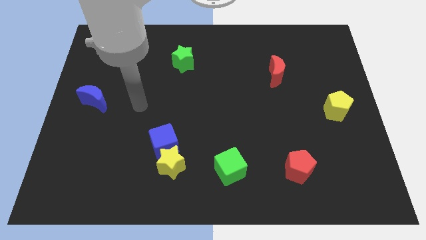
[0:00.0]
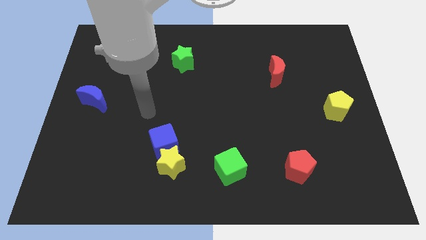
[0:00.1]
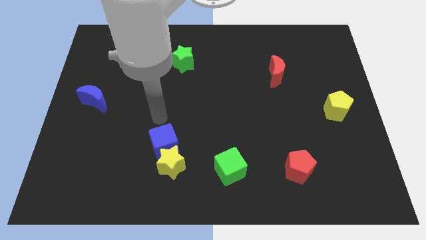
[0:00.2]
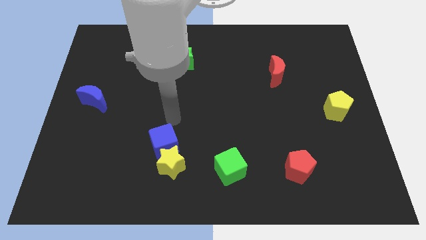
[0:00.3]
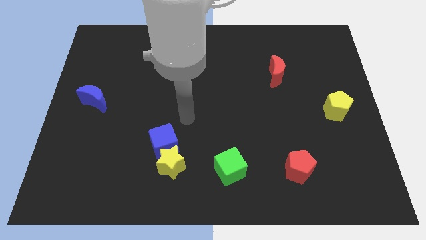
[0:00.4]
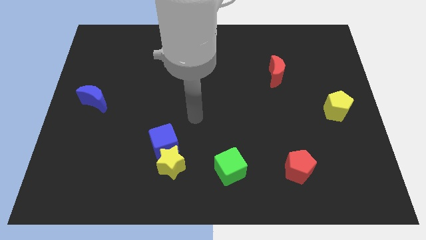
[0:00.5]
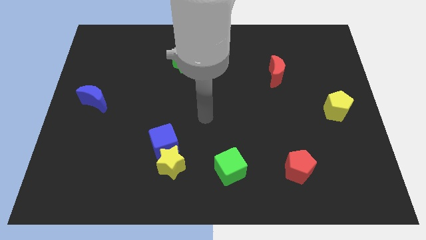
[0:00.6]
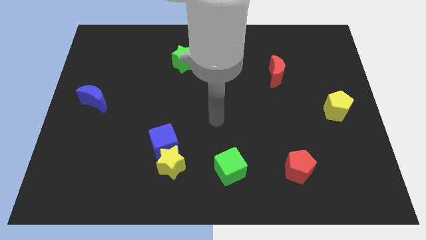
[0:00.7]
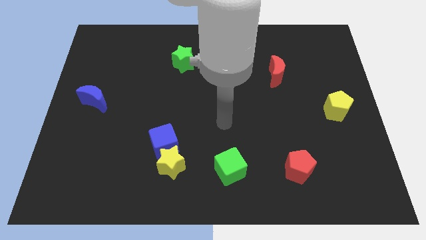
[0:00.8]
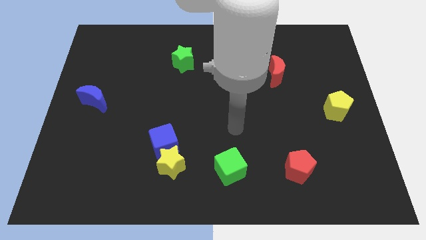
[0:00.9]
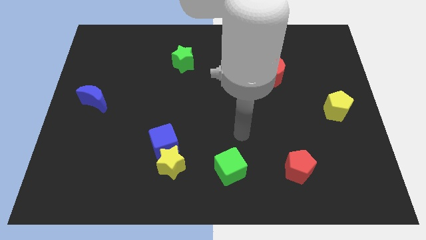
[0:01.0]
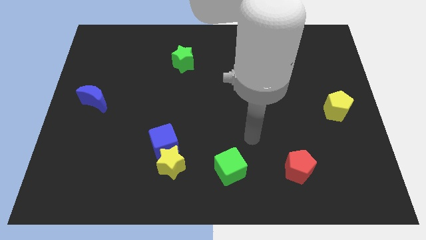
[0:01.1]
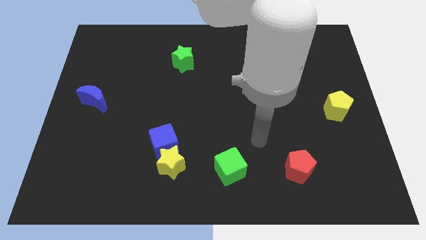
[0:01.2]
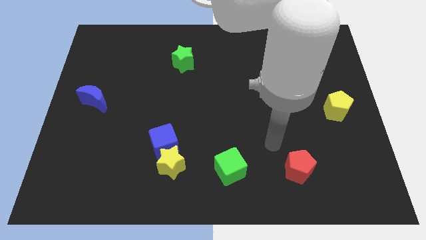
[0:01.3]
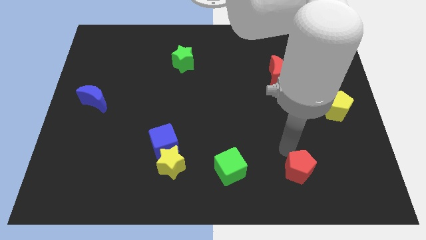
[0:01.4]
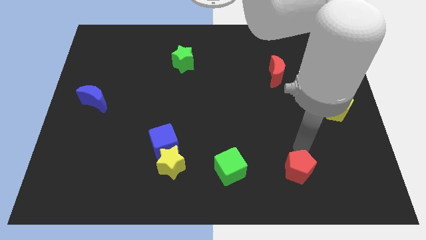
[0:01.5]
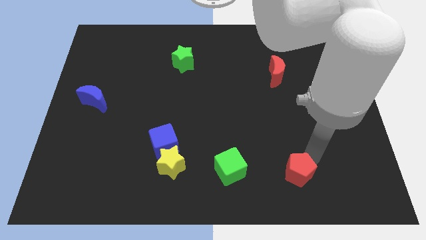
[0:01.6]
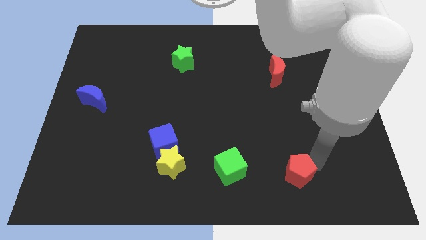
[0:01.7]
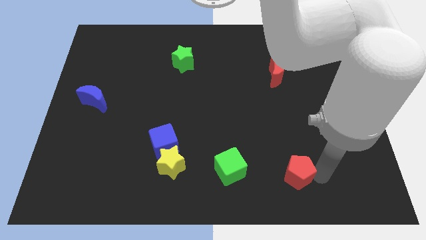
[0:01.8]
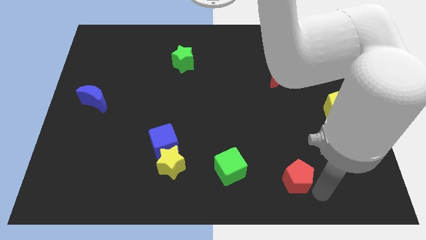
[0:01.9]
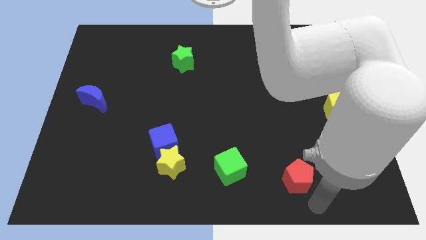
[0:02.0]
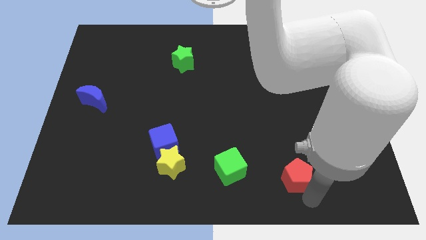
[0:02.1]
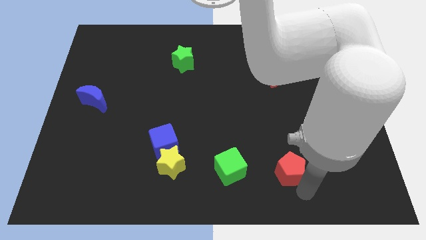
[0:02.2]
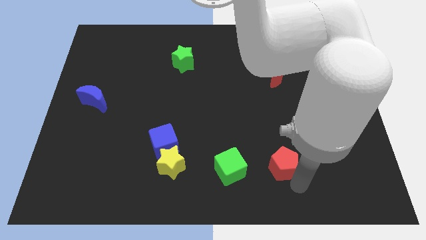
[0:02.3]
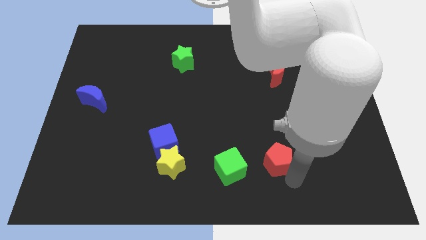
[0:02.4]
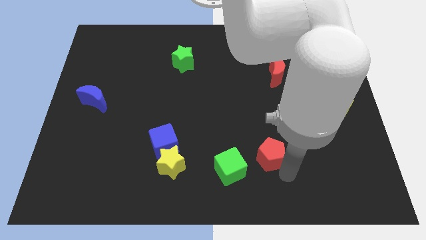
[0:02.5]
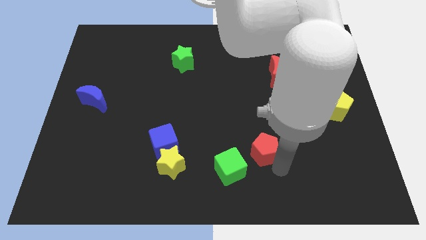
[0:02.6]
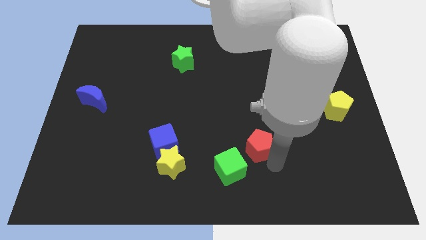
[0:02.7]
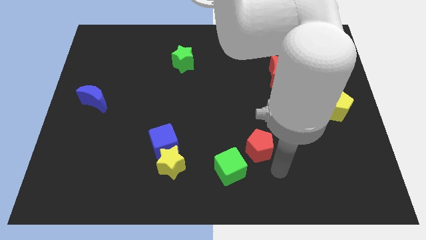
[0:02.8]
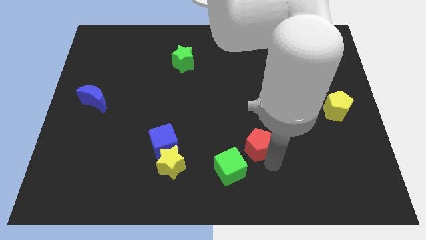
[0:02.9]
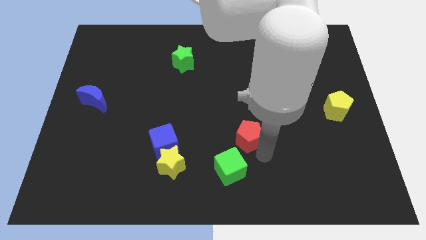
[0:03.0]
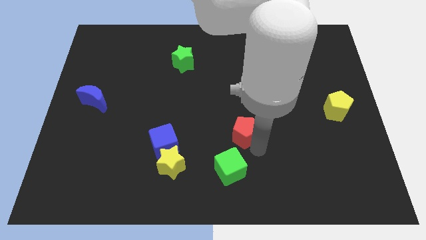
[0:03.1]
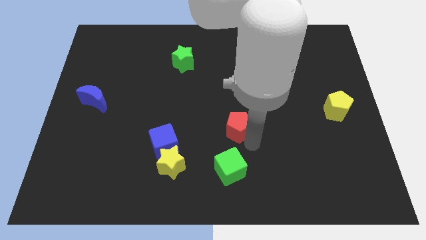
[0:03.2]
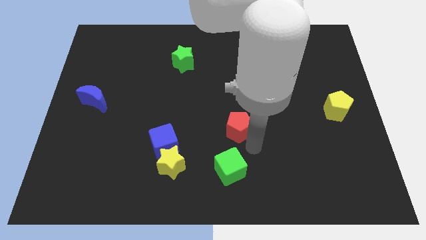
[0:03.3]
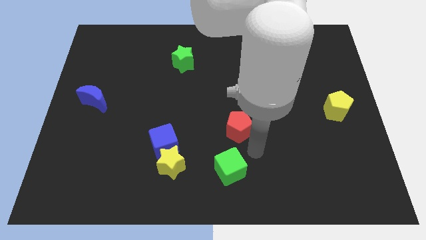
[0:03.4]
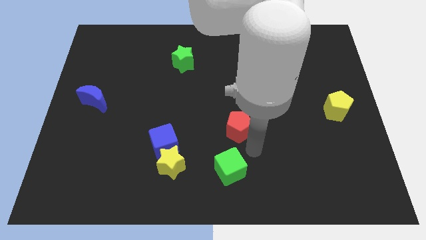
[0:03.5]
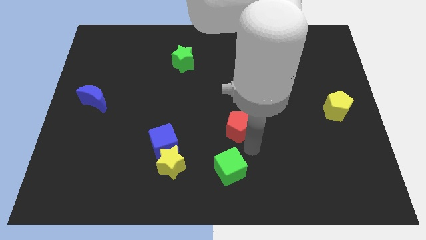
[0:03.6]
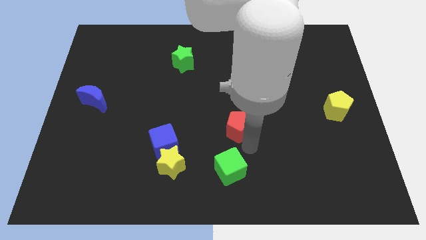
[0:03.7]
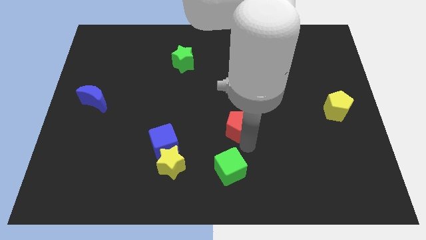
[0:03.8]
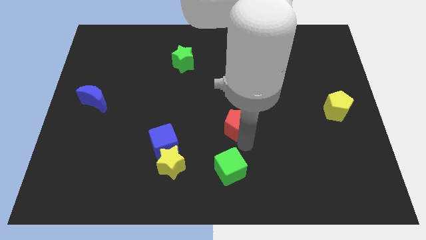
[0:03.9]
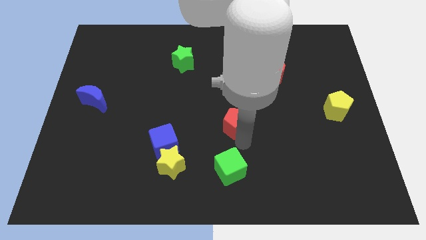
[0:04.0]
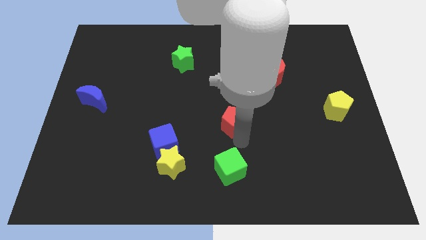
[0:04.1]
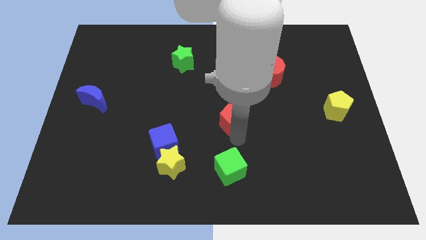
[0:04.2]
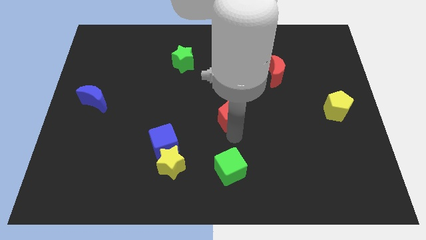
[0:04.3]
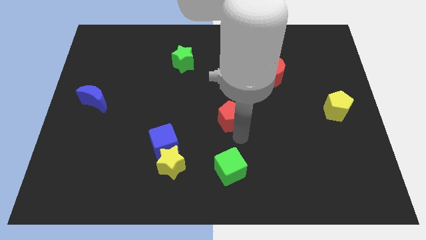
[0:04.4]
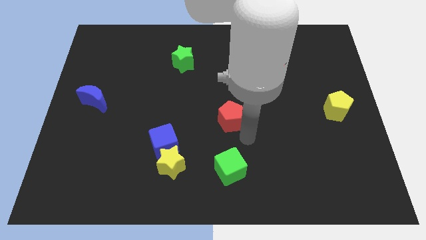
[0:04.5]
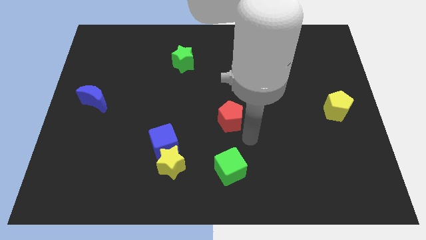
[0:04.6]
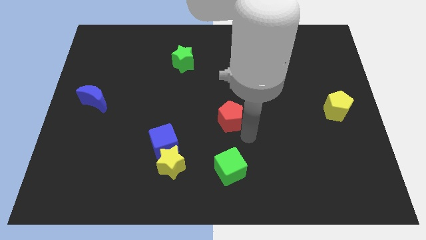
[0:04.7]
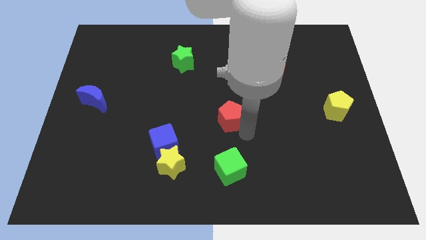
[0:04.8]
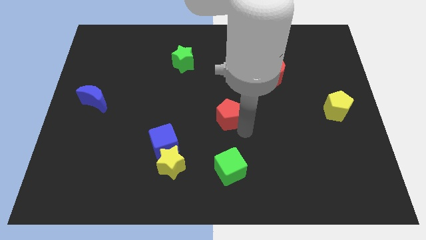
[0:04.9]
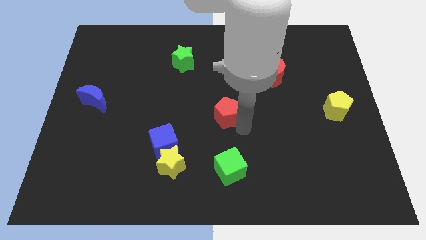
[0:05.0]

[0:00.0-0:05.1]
slide the red pentagon upwards and to the left diagonally

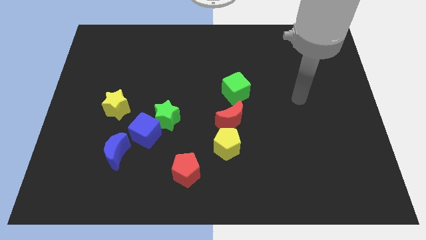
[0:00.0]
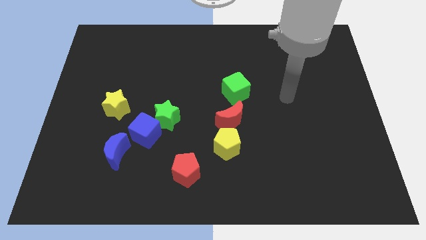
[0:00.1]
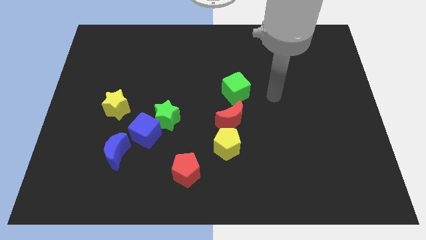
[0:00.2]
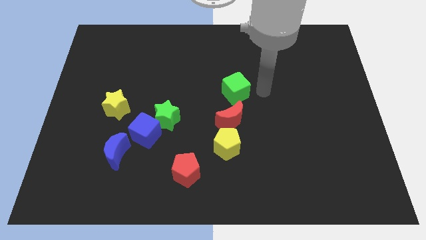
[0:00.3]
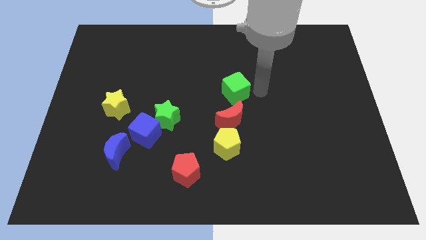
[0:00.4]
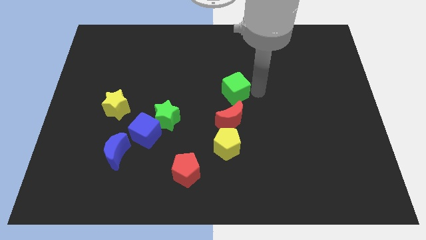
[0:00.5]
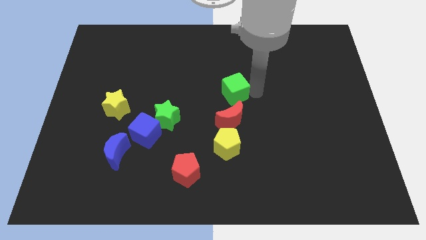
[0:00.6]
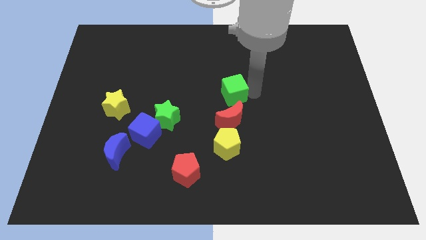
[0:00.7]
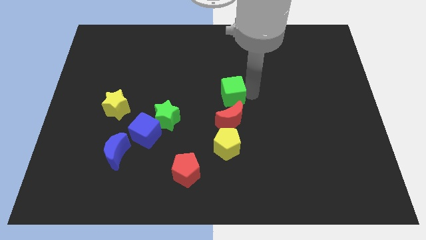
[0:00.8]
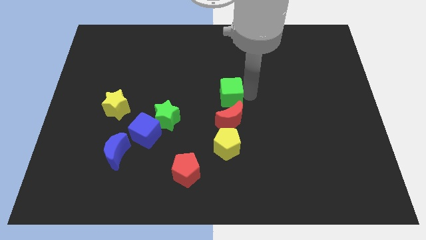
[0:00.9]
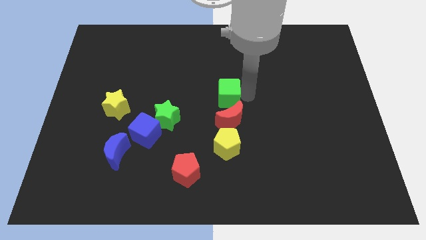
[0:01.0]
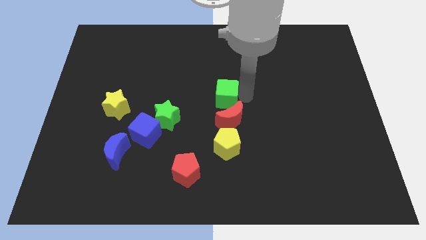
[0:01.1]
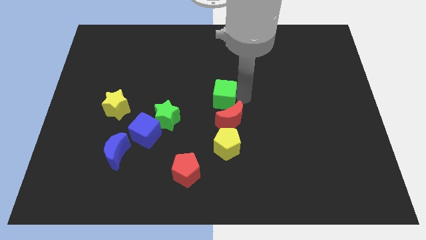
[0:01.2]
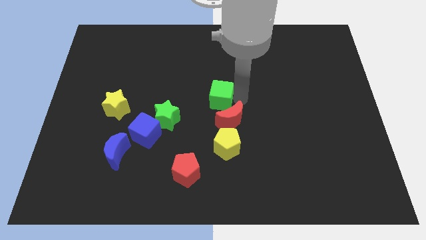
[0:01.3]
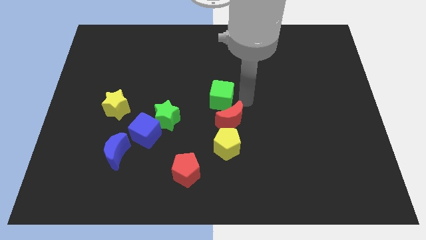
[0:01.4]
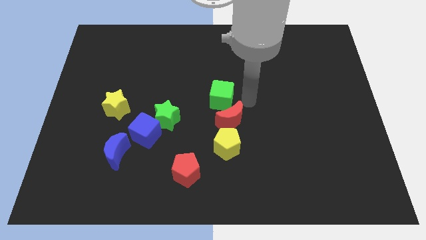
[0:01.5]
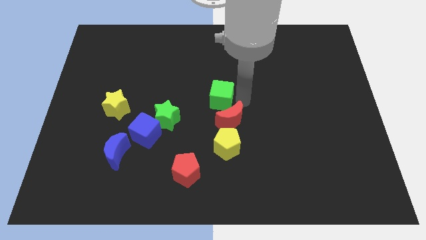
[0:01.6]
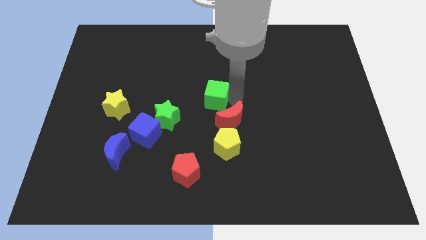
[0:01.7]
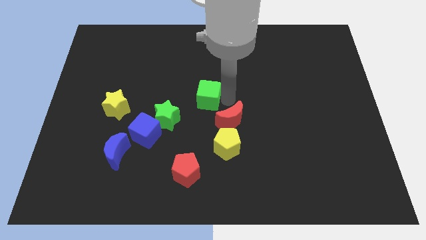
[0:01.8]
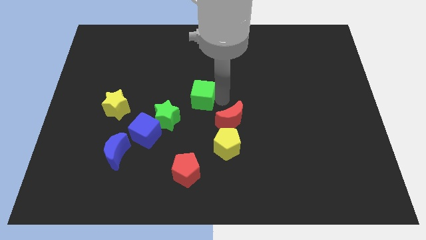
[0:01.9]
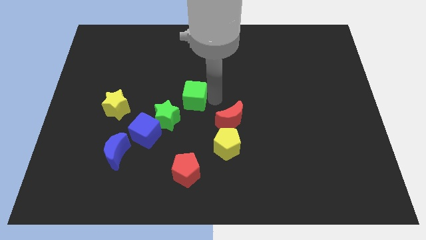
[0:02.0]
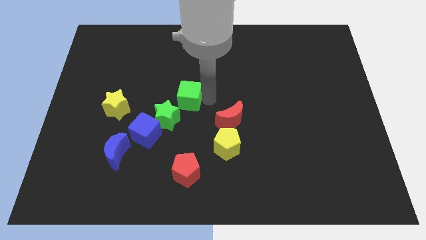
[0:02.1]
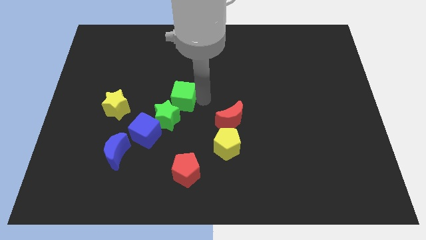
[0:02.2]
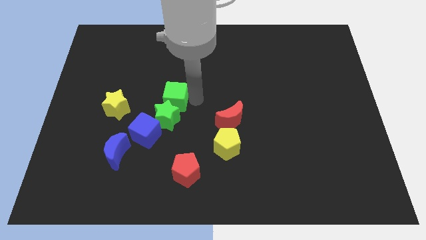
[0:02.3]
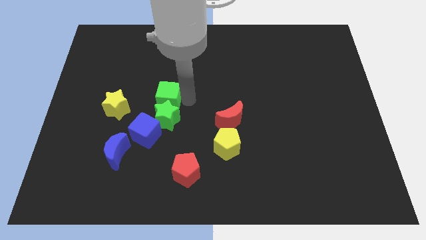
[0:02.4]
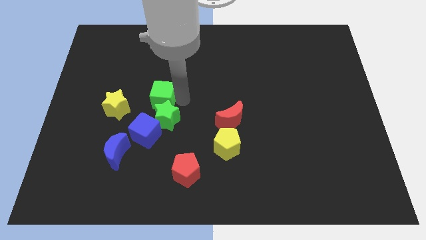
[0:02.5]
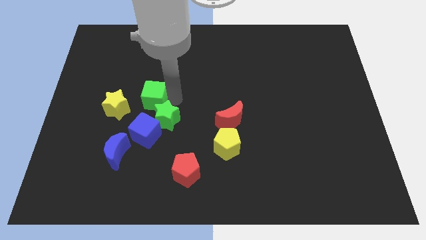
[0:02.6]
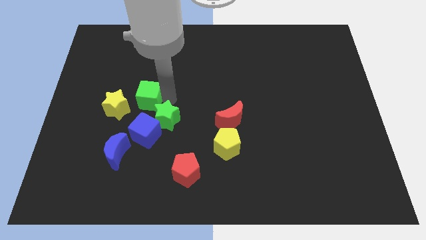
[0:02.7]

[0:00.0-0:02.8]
move the green cube left

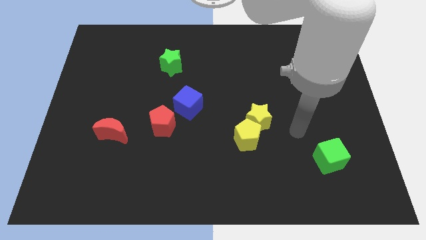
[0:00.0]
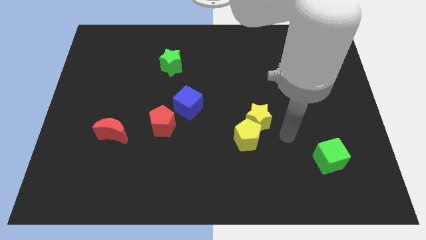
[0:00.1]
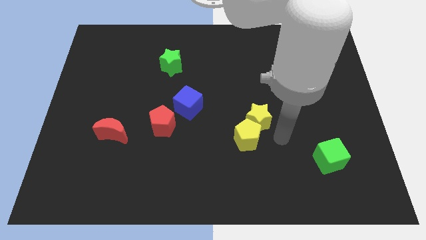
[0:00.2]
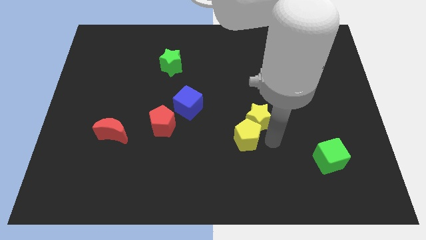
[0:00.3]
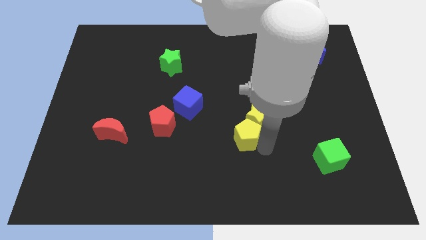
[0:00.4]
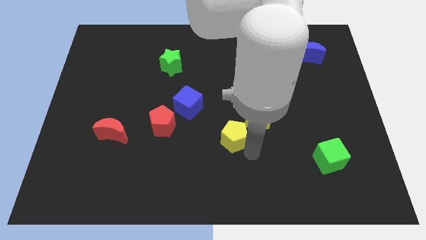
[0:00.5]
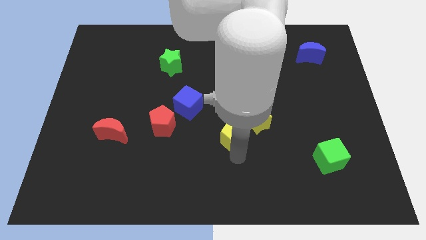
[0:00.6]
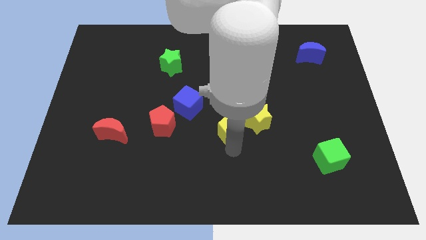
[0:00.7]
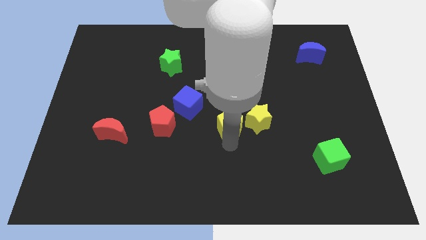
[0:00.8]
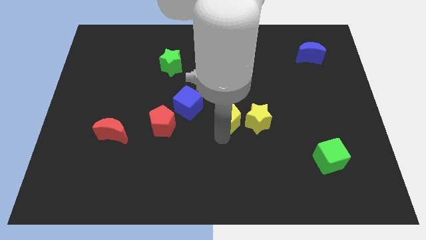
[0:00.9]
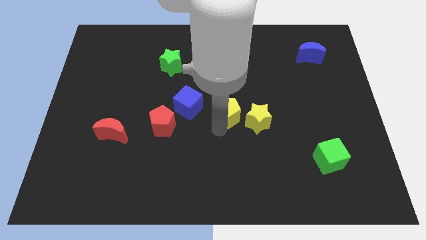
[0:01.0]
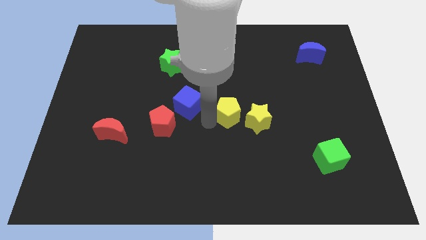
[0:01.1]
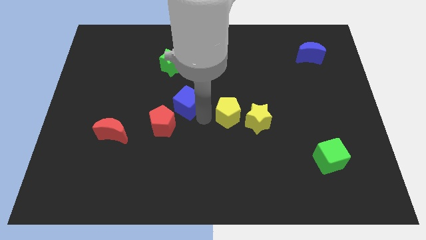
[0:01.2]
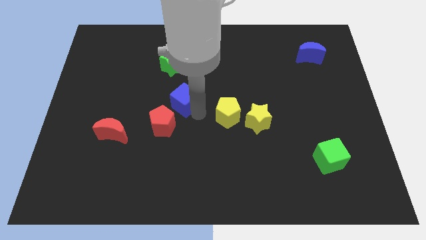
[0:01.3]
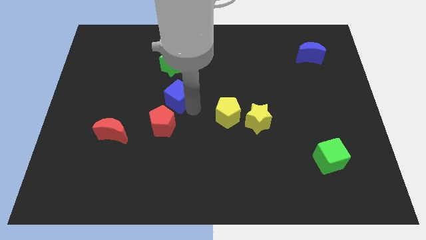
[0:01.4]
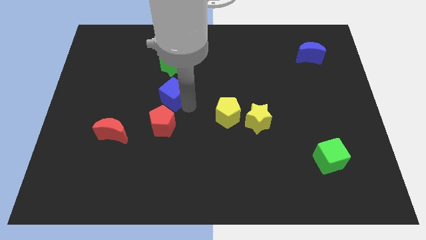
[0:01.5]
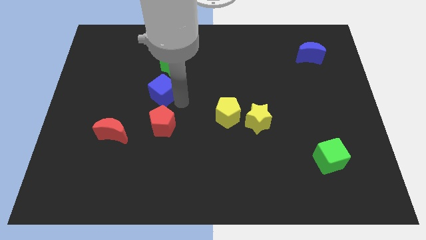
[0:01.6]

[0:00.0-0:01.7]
move the blue cube a little upwards and left
